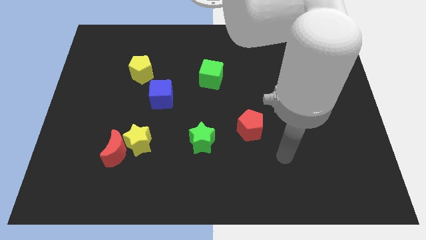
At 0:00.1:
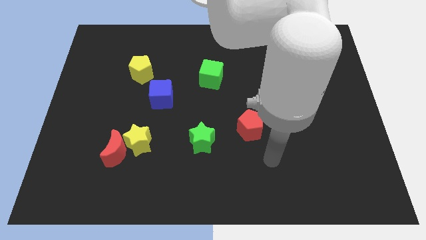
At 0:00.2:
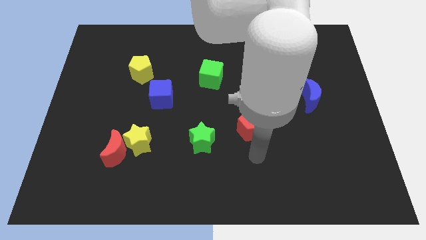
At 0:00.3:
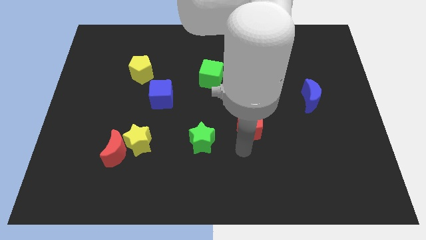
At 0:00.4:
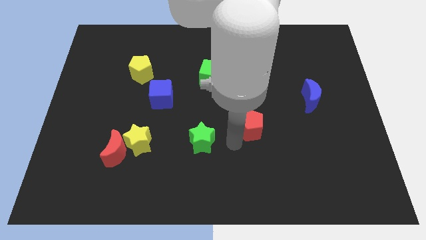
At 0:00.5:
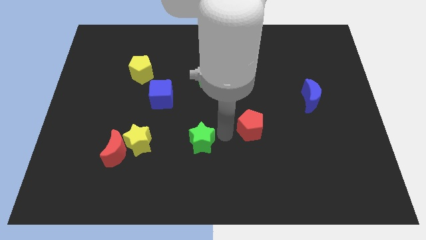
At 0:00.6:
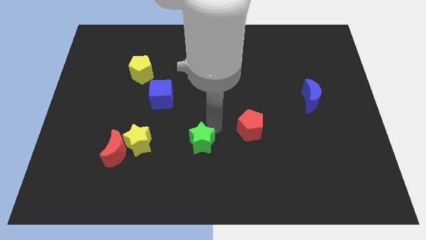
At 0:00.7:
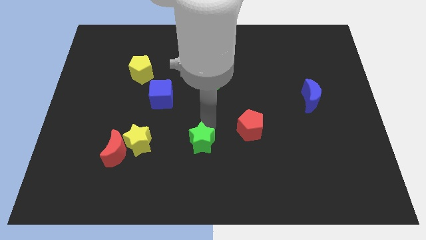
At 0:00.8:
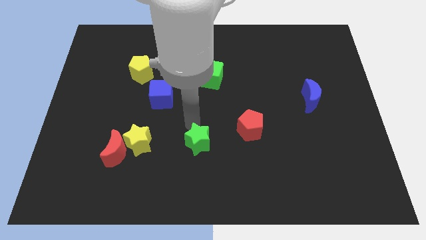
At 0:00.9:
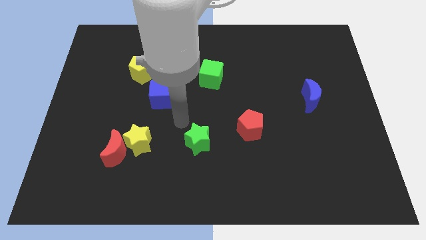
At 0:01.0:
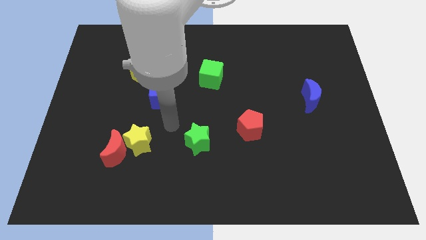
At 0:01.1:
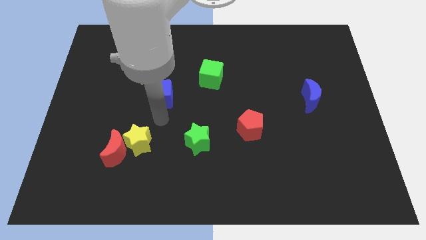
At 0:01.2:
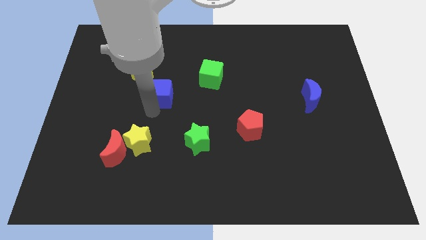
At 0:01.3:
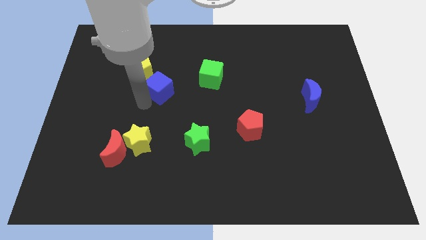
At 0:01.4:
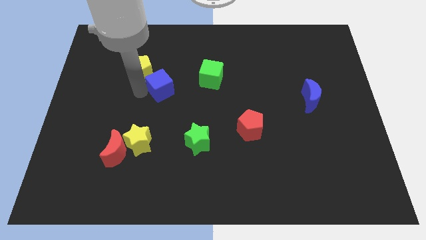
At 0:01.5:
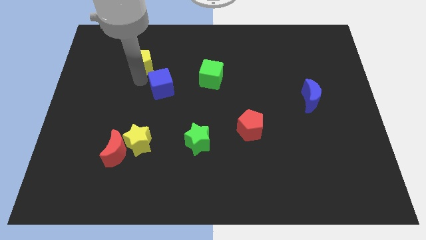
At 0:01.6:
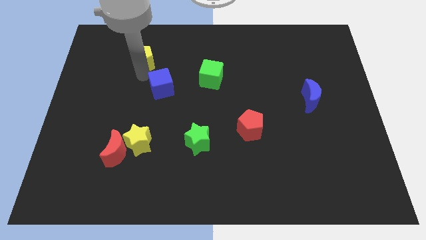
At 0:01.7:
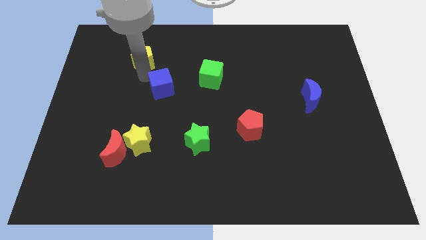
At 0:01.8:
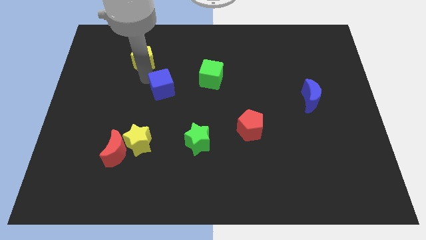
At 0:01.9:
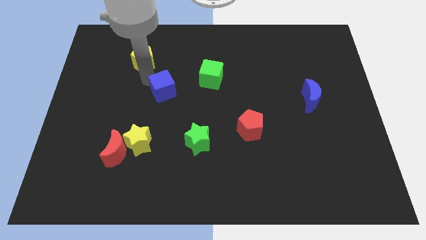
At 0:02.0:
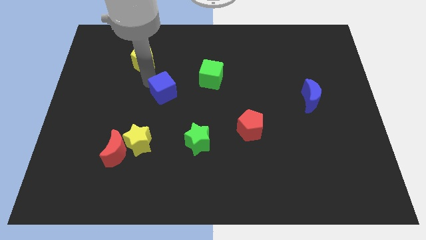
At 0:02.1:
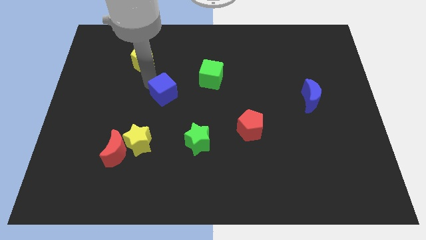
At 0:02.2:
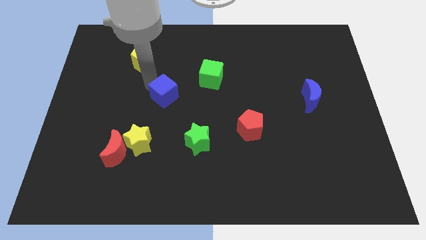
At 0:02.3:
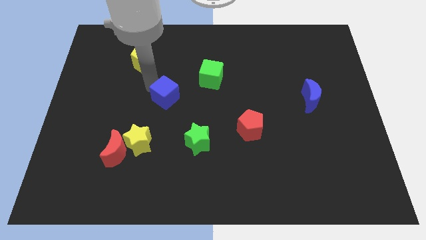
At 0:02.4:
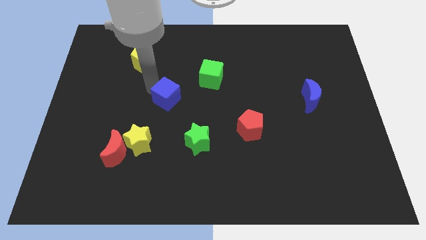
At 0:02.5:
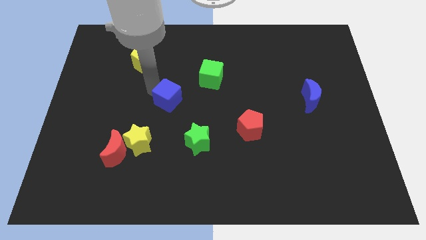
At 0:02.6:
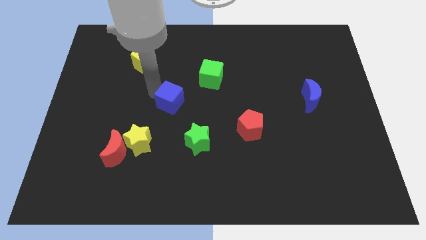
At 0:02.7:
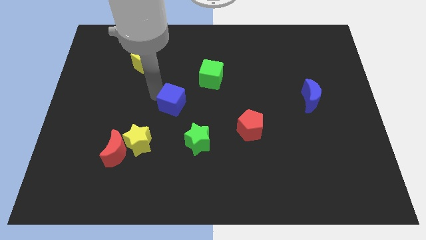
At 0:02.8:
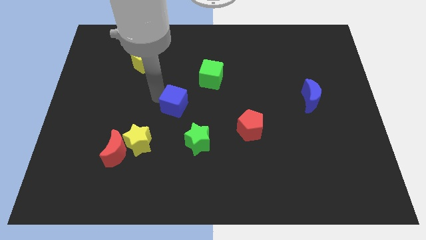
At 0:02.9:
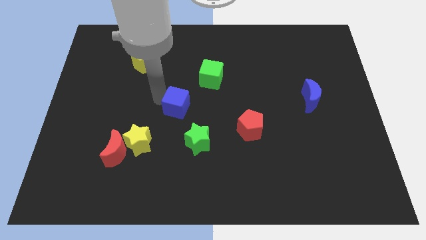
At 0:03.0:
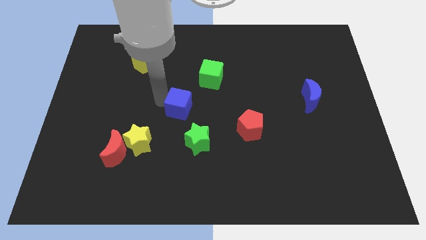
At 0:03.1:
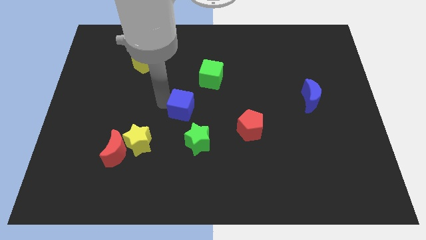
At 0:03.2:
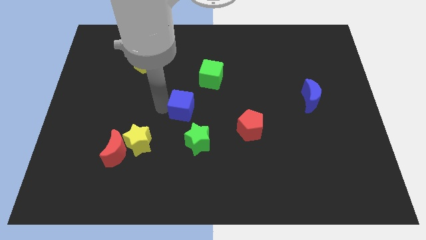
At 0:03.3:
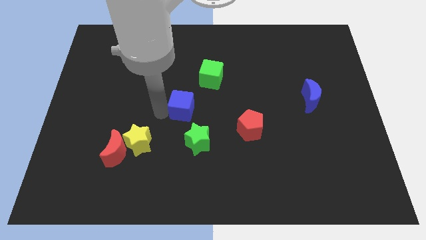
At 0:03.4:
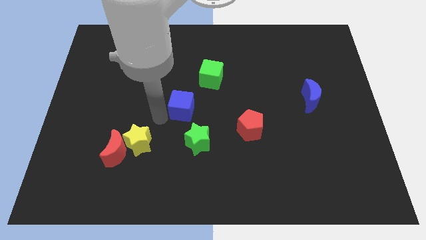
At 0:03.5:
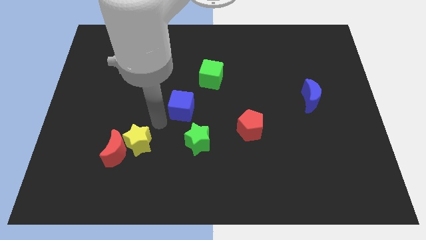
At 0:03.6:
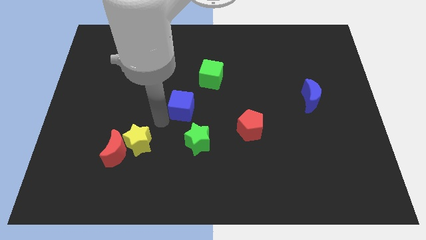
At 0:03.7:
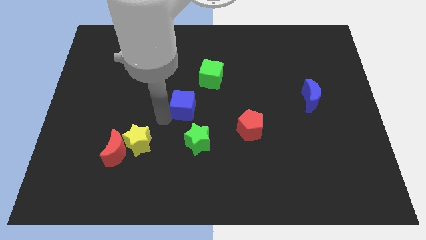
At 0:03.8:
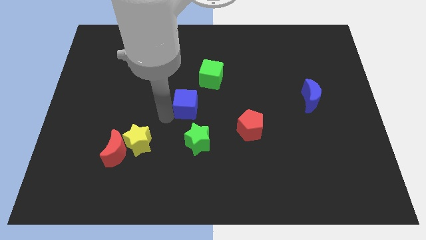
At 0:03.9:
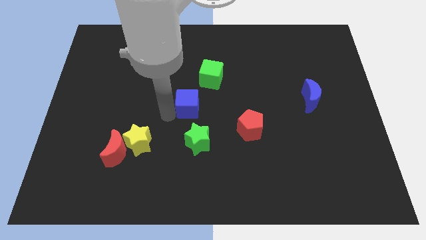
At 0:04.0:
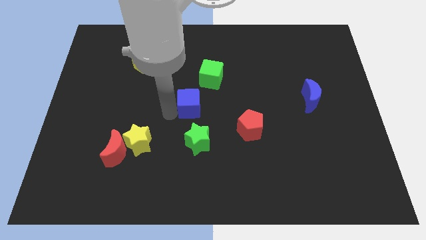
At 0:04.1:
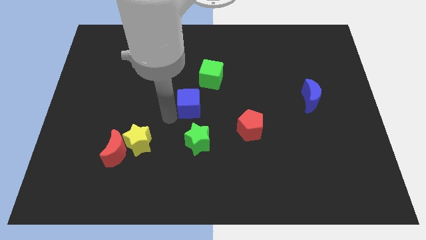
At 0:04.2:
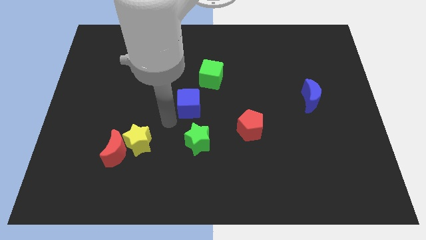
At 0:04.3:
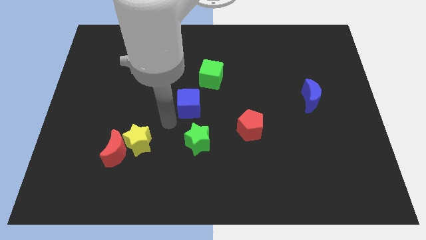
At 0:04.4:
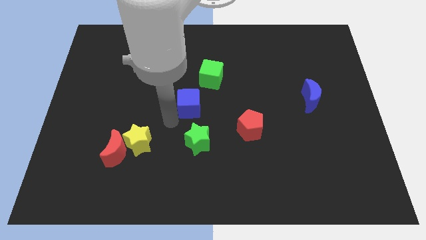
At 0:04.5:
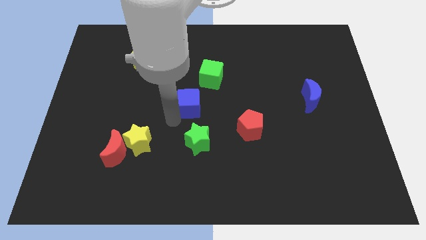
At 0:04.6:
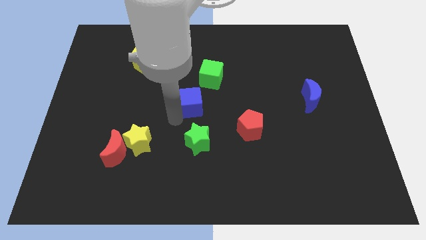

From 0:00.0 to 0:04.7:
push the blue cube a little right

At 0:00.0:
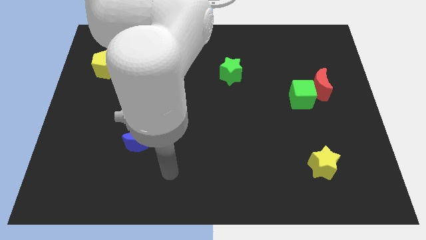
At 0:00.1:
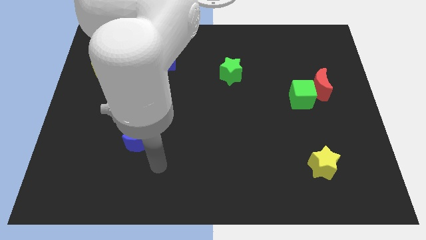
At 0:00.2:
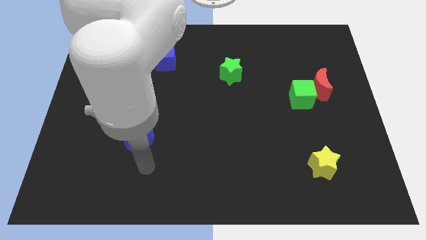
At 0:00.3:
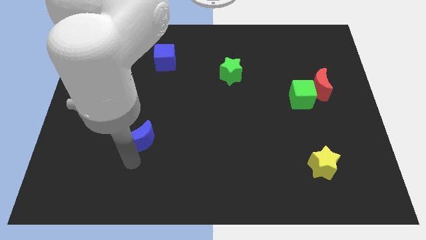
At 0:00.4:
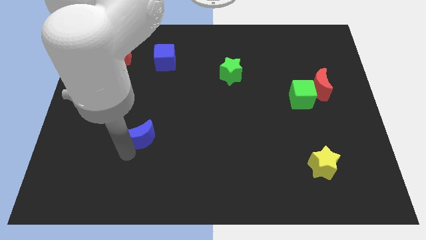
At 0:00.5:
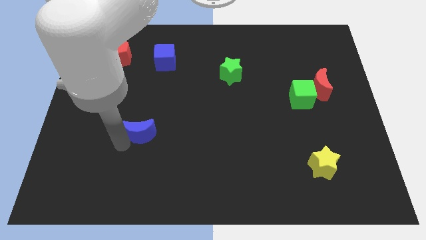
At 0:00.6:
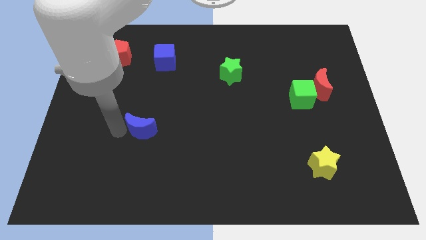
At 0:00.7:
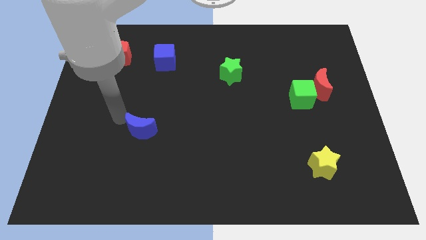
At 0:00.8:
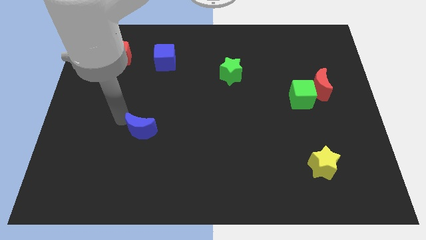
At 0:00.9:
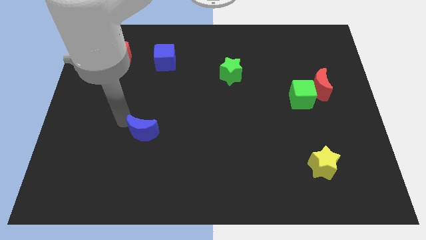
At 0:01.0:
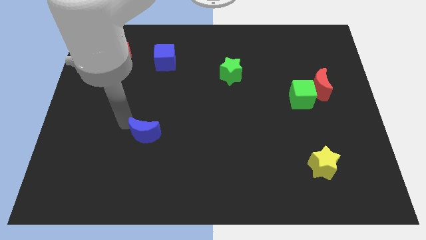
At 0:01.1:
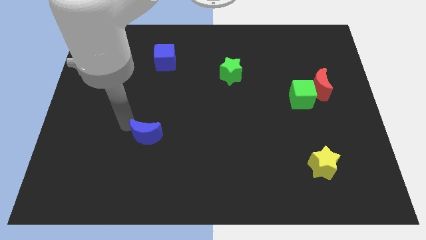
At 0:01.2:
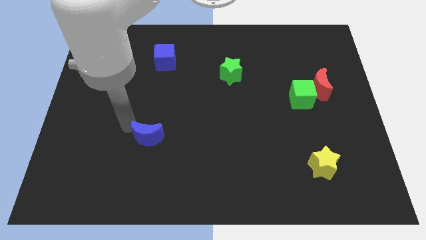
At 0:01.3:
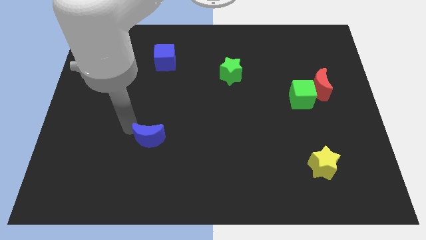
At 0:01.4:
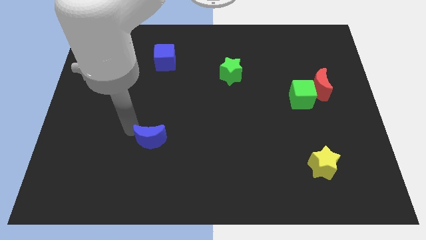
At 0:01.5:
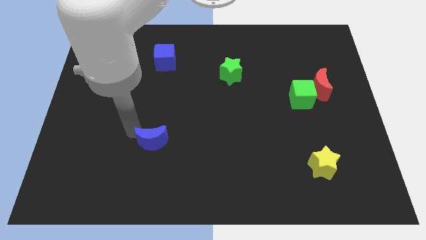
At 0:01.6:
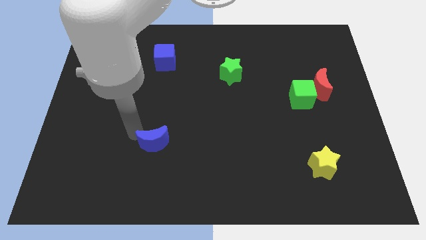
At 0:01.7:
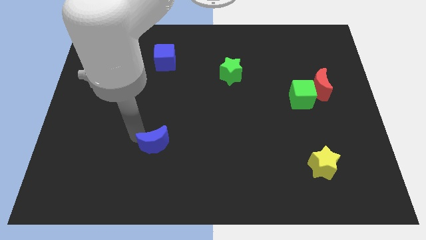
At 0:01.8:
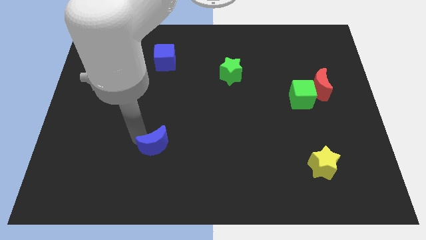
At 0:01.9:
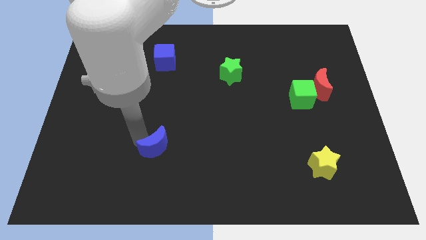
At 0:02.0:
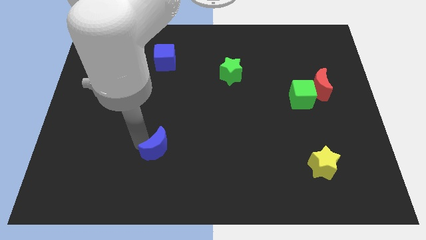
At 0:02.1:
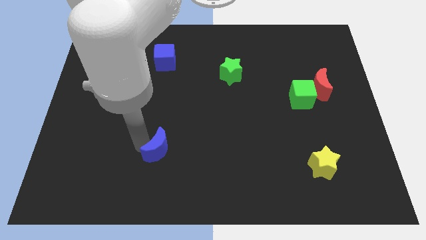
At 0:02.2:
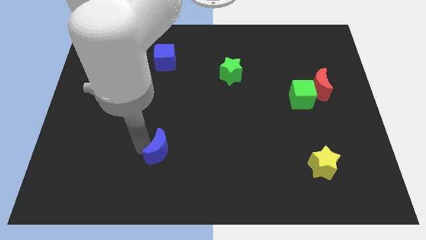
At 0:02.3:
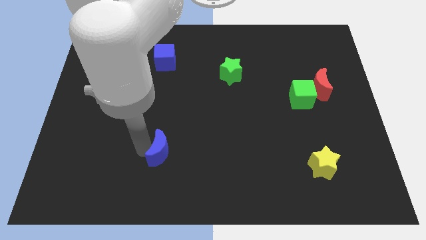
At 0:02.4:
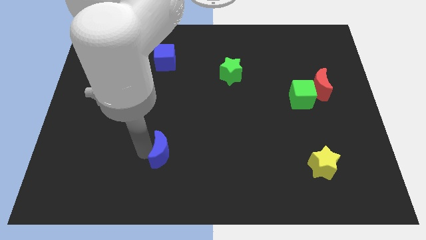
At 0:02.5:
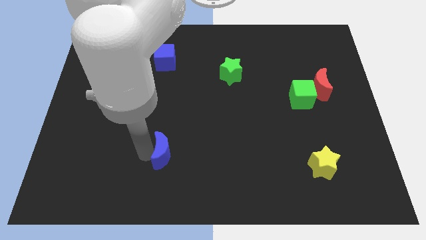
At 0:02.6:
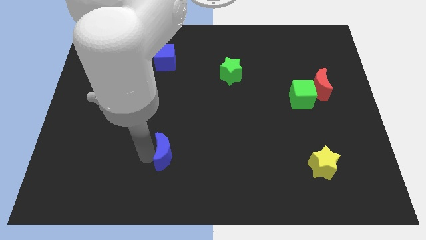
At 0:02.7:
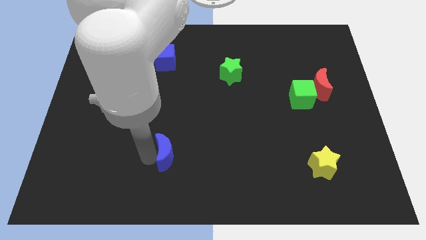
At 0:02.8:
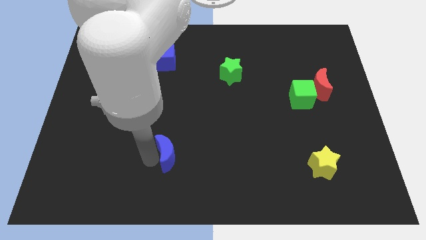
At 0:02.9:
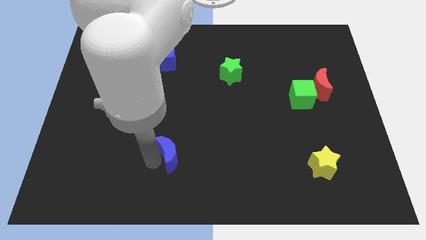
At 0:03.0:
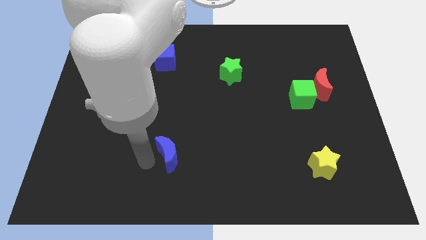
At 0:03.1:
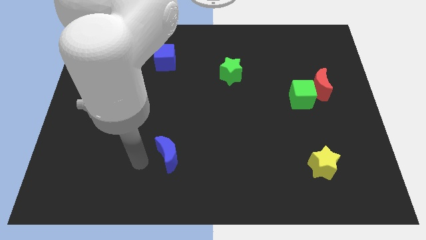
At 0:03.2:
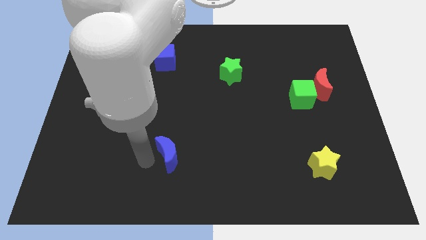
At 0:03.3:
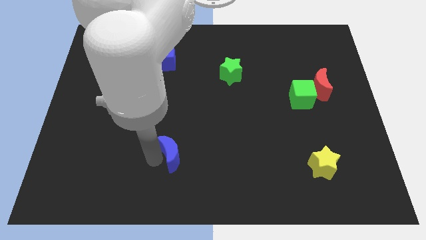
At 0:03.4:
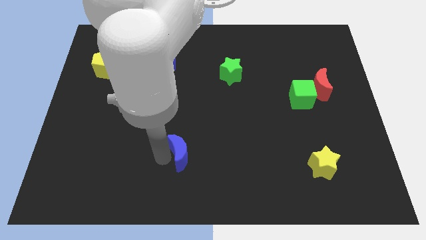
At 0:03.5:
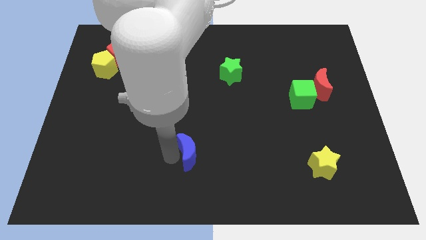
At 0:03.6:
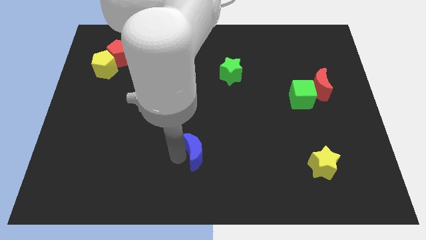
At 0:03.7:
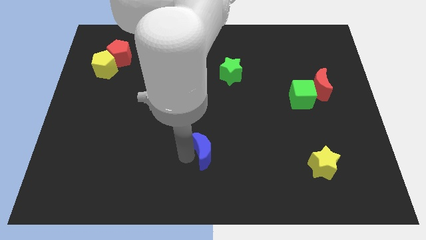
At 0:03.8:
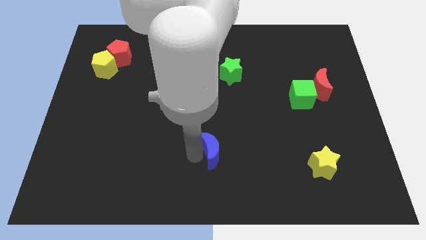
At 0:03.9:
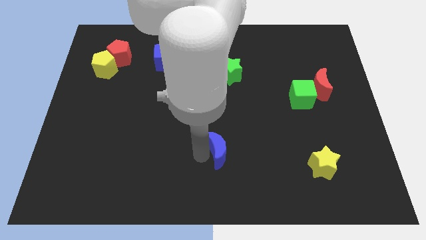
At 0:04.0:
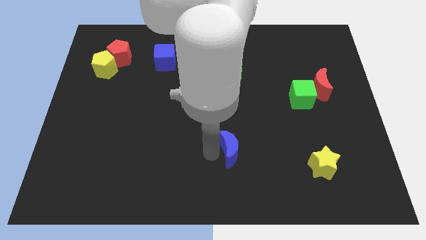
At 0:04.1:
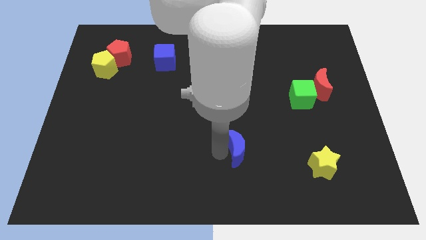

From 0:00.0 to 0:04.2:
move the blue moon to the right
